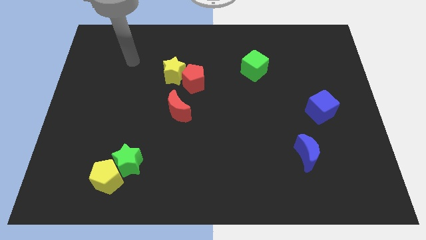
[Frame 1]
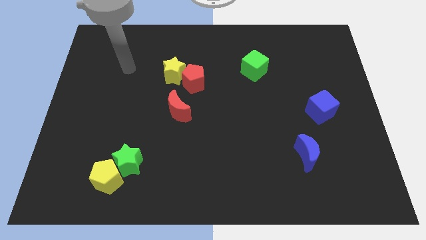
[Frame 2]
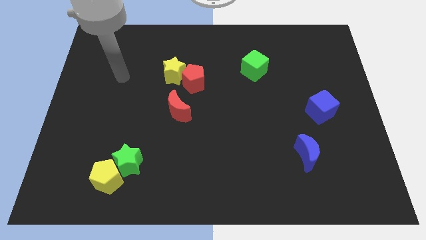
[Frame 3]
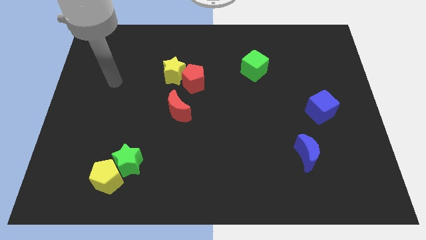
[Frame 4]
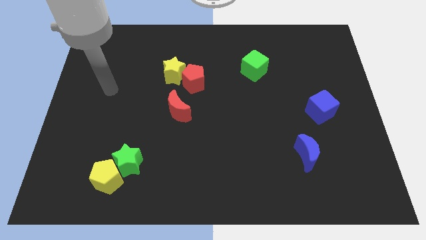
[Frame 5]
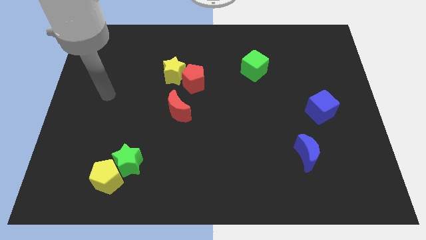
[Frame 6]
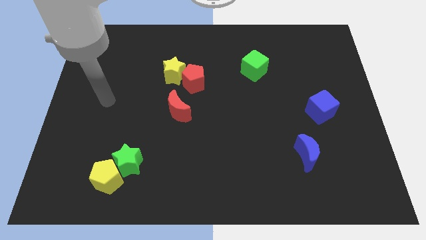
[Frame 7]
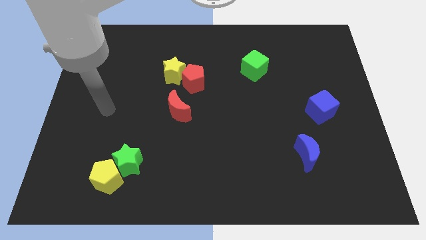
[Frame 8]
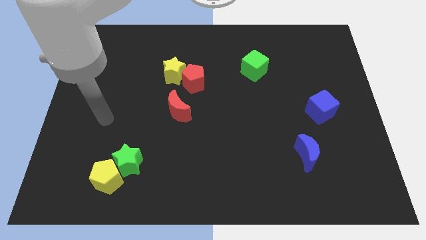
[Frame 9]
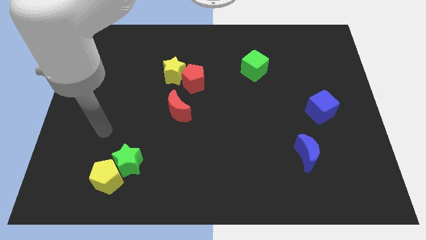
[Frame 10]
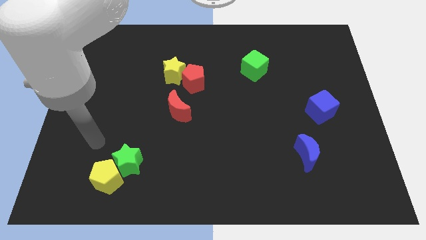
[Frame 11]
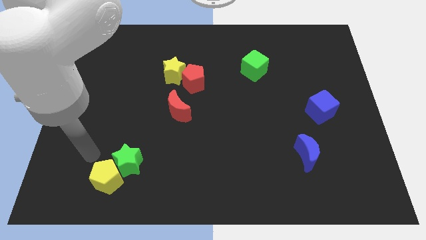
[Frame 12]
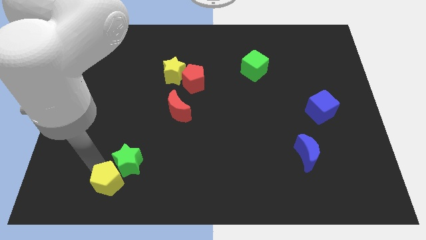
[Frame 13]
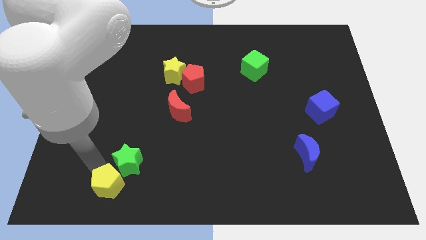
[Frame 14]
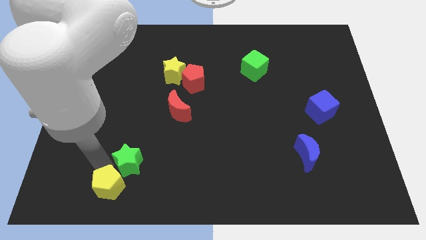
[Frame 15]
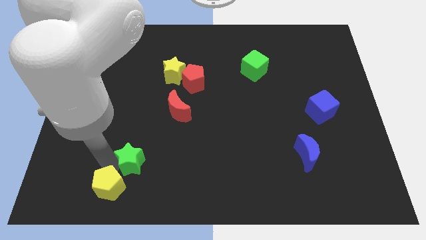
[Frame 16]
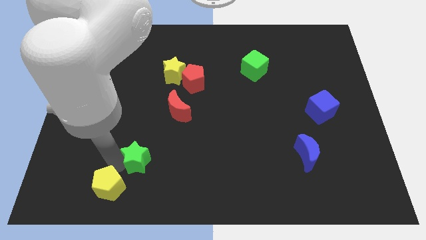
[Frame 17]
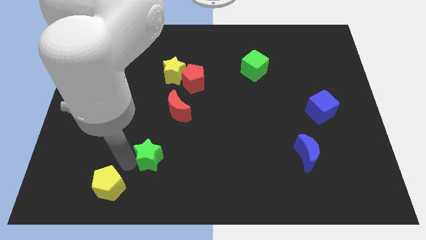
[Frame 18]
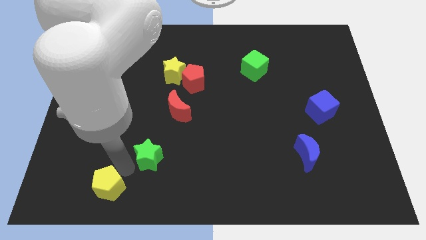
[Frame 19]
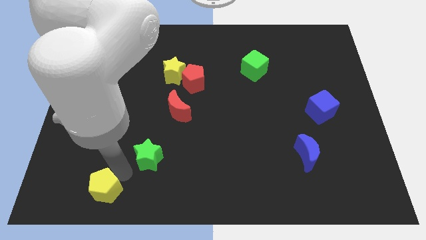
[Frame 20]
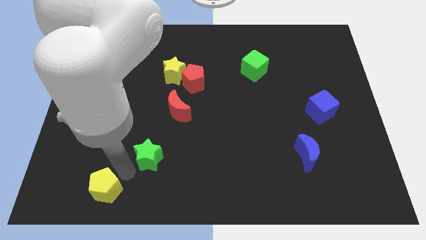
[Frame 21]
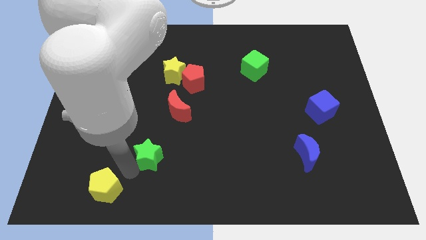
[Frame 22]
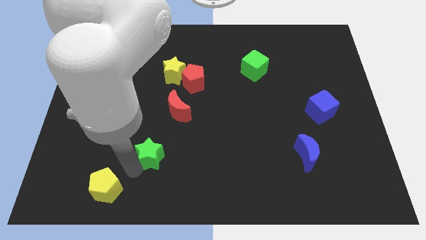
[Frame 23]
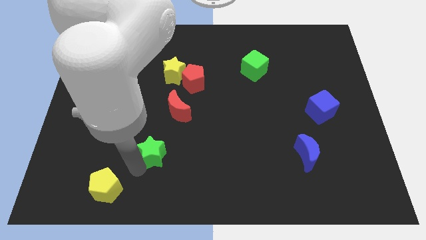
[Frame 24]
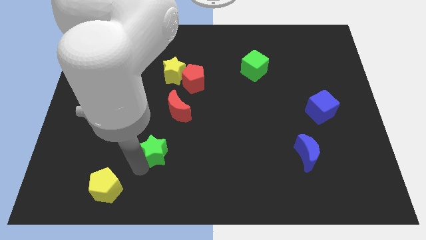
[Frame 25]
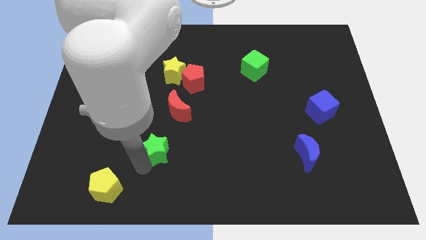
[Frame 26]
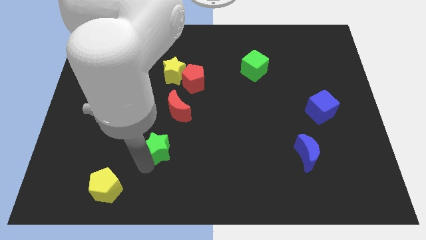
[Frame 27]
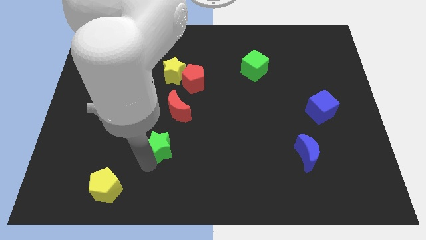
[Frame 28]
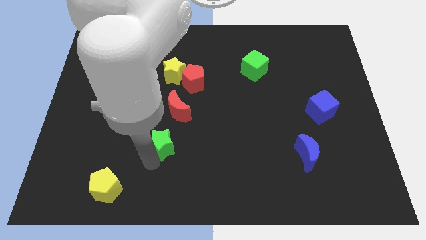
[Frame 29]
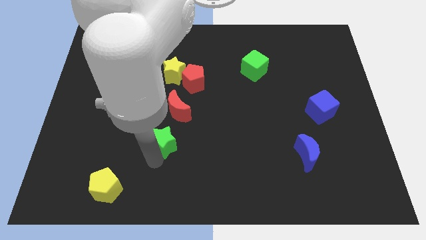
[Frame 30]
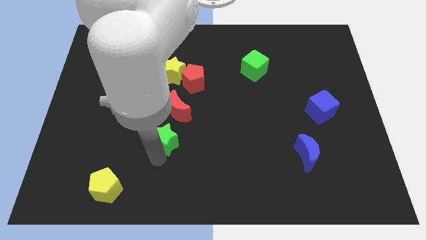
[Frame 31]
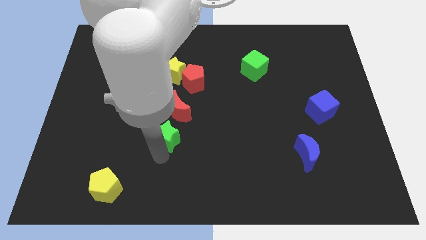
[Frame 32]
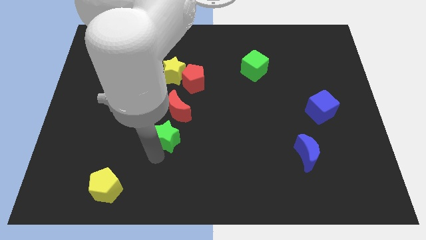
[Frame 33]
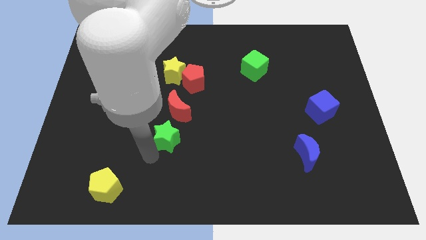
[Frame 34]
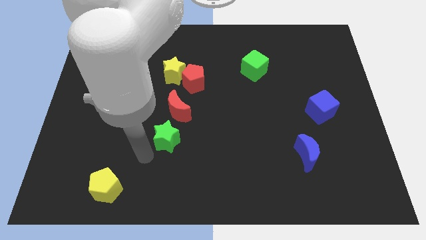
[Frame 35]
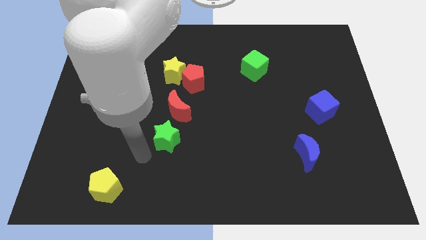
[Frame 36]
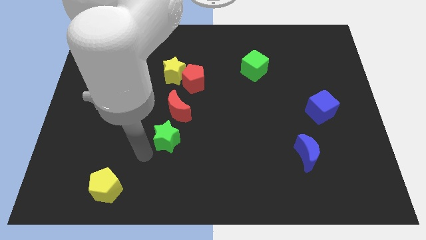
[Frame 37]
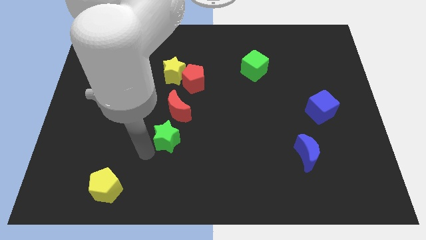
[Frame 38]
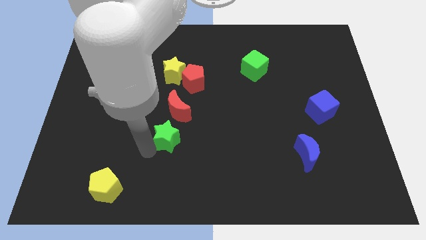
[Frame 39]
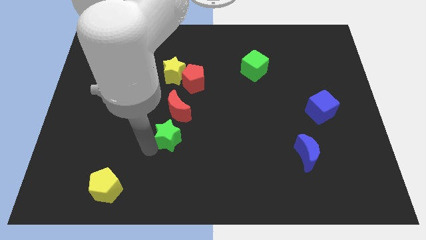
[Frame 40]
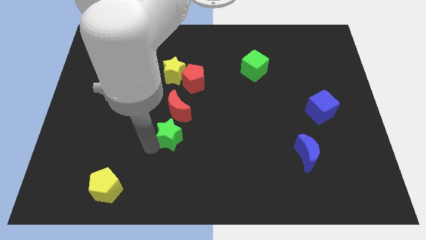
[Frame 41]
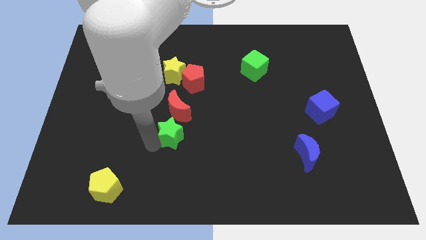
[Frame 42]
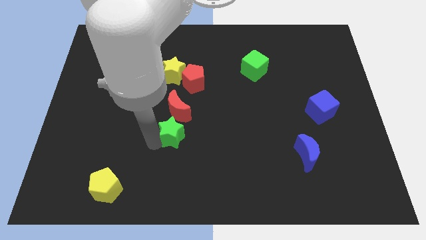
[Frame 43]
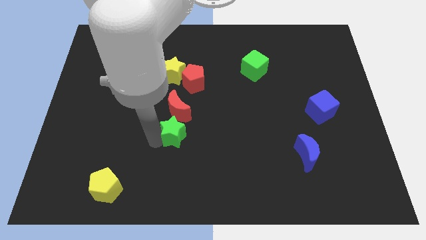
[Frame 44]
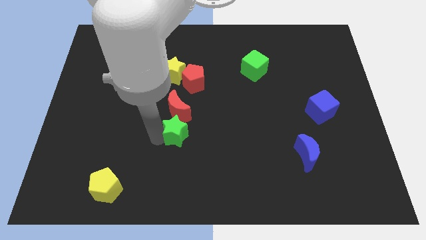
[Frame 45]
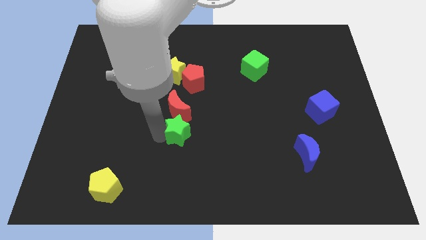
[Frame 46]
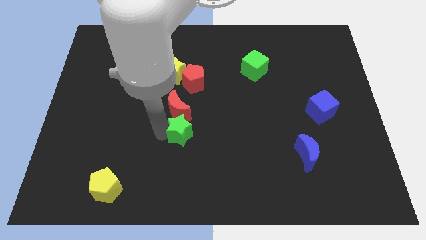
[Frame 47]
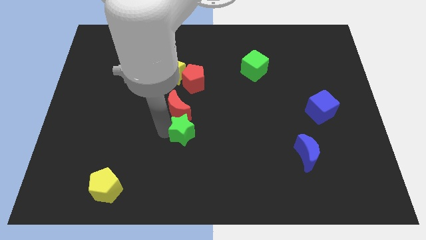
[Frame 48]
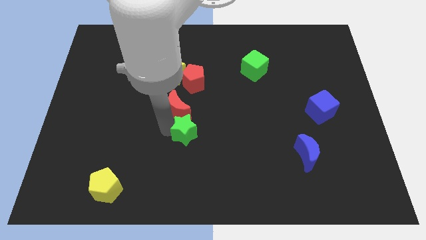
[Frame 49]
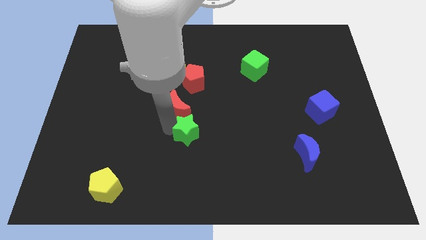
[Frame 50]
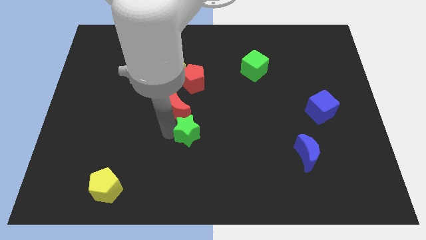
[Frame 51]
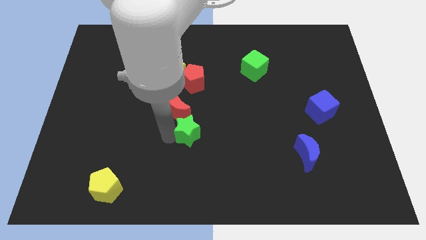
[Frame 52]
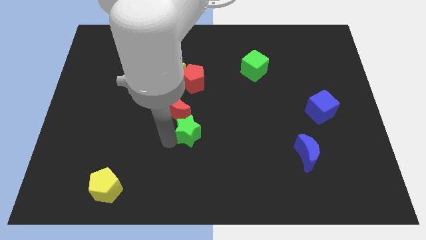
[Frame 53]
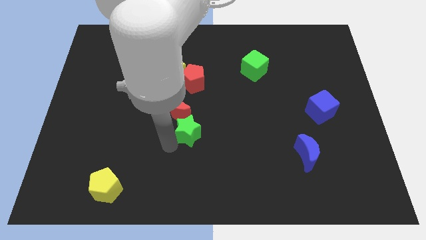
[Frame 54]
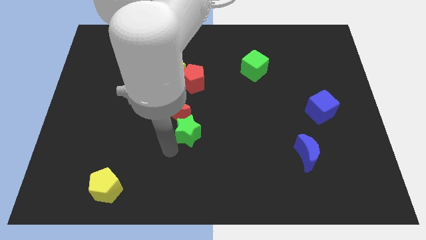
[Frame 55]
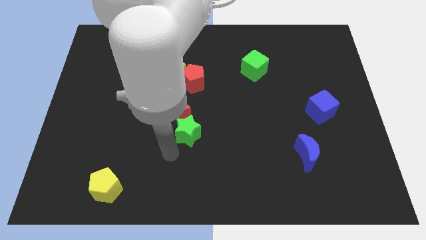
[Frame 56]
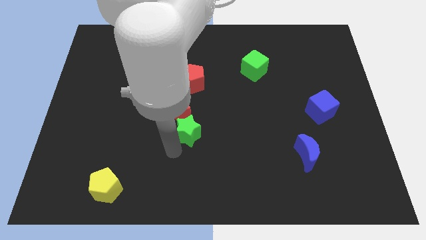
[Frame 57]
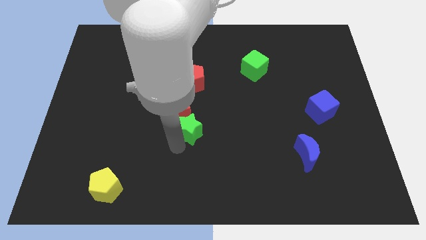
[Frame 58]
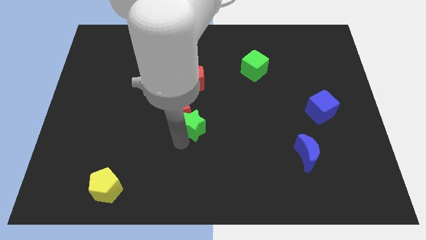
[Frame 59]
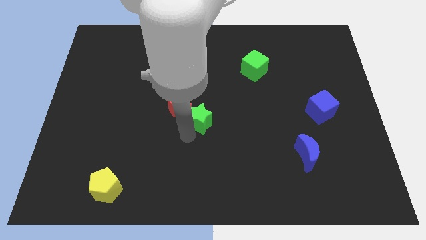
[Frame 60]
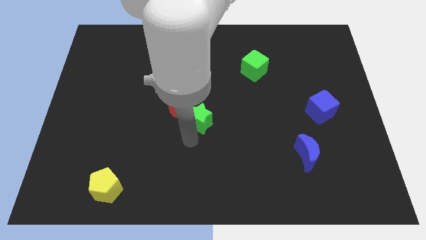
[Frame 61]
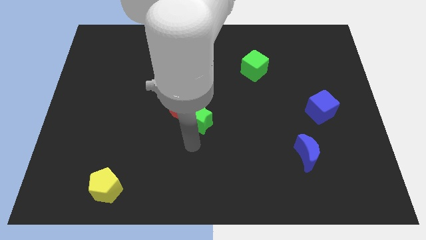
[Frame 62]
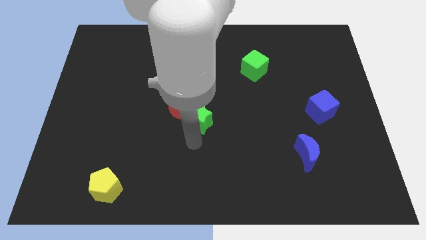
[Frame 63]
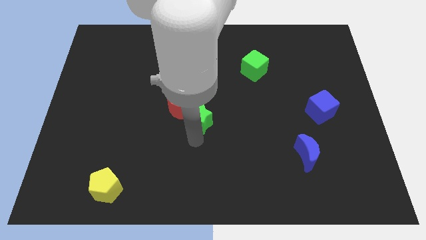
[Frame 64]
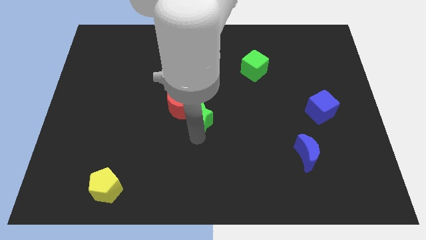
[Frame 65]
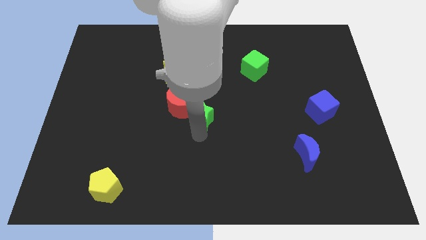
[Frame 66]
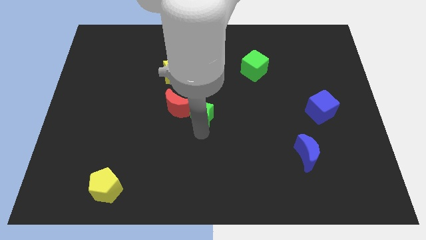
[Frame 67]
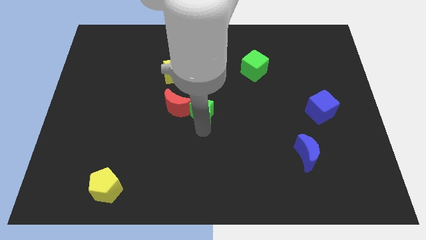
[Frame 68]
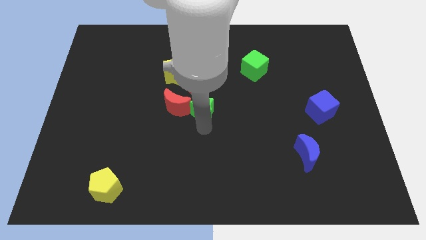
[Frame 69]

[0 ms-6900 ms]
push the green star upwards and then right

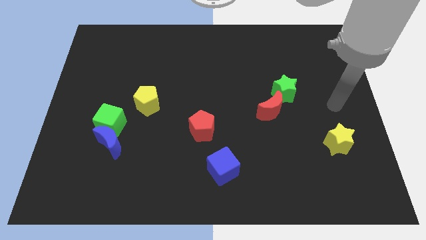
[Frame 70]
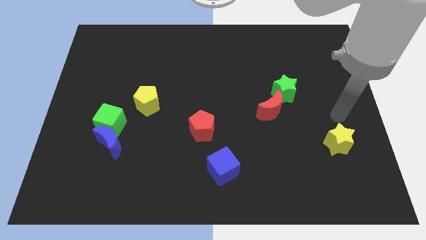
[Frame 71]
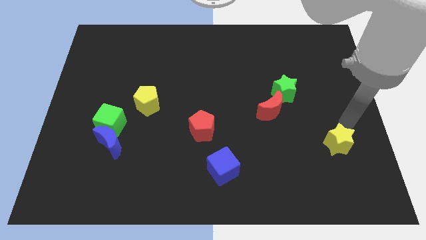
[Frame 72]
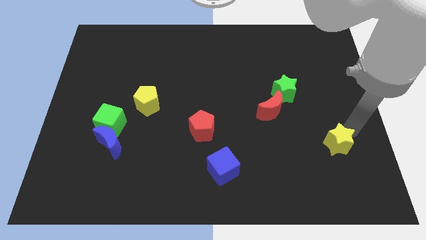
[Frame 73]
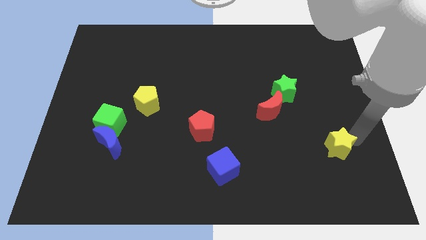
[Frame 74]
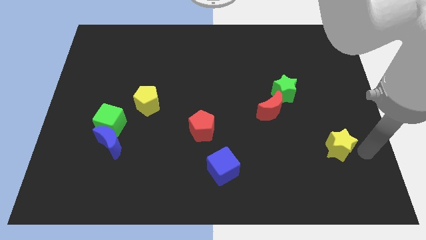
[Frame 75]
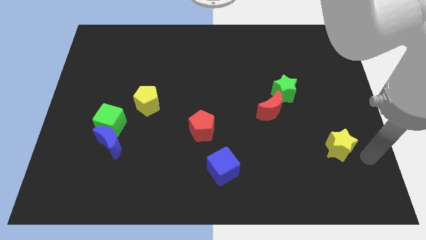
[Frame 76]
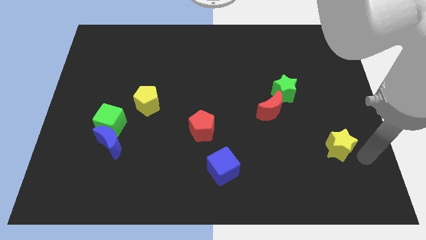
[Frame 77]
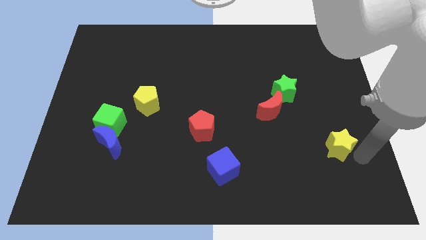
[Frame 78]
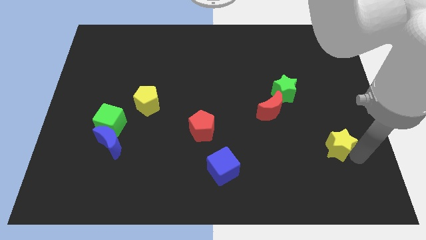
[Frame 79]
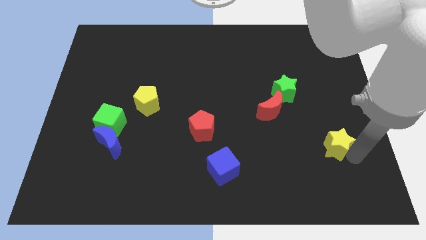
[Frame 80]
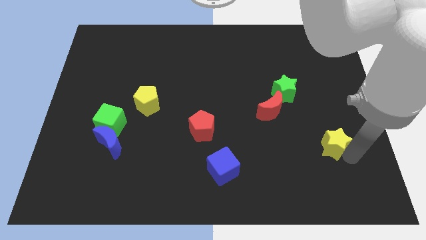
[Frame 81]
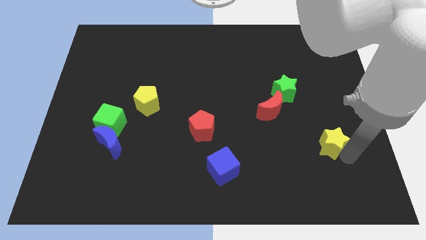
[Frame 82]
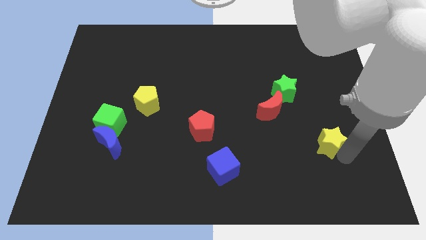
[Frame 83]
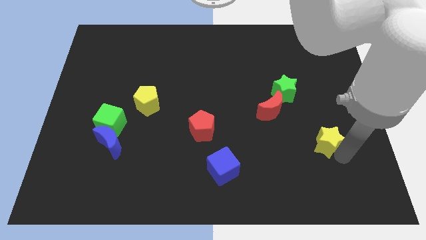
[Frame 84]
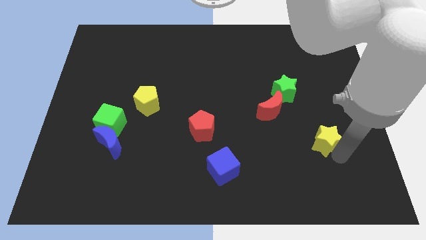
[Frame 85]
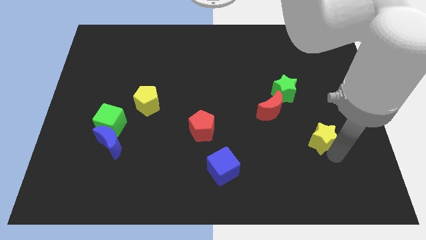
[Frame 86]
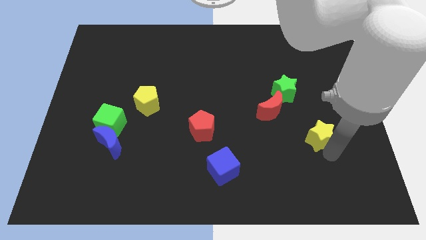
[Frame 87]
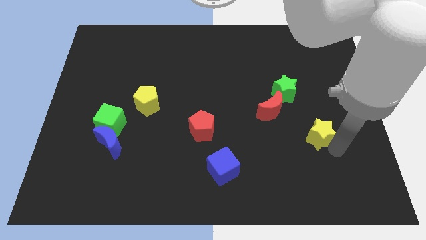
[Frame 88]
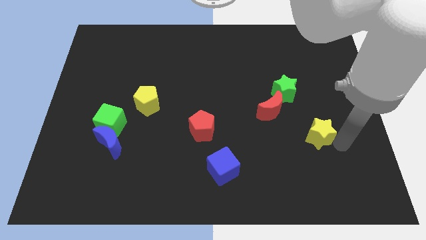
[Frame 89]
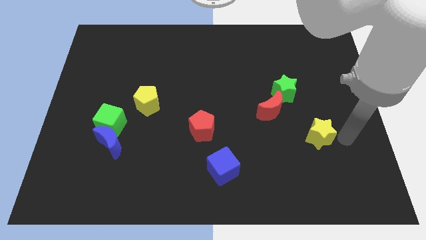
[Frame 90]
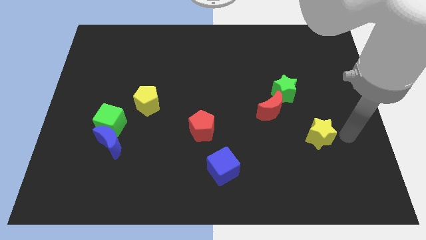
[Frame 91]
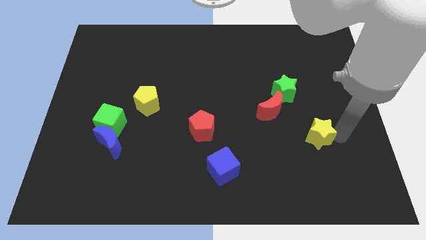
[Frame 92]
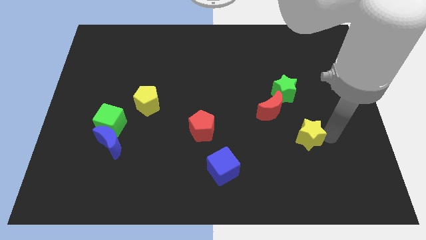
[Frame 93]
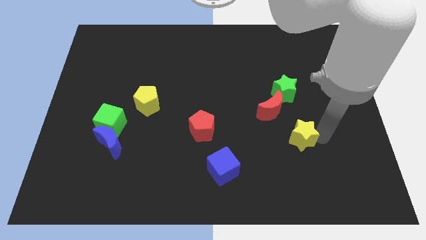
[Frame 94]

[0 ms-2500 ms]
slightly push the yellow star to the left
